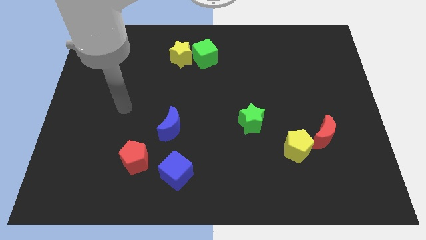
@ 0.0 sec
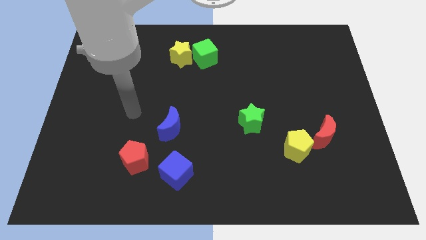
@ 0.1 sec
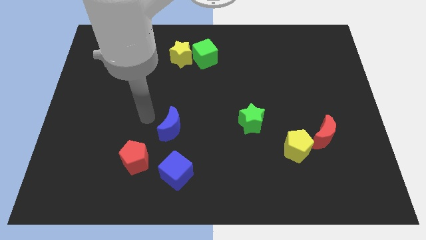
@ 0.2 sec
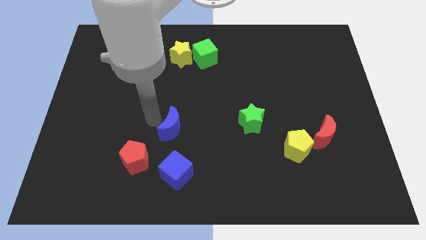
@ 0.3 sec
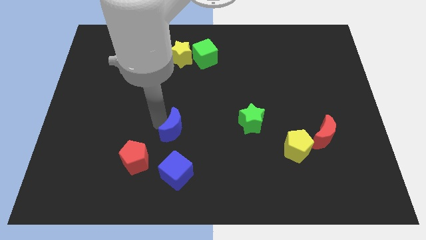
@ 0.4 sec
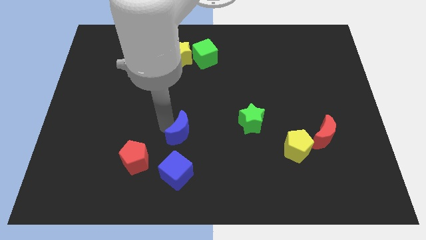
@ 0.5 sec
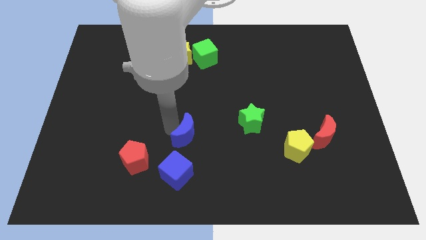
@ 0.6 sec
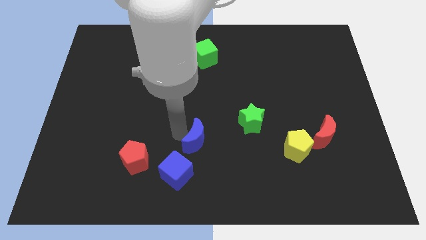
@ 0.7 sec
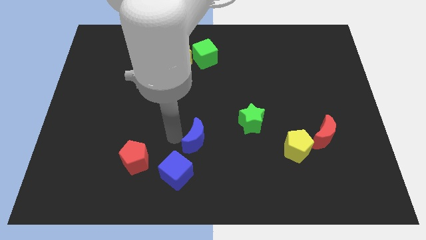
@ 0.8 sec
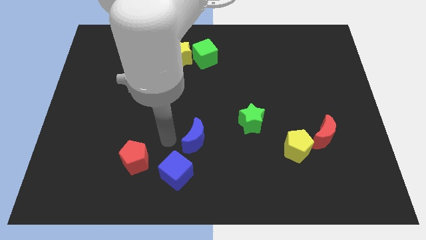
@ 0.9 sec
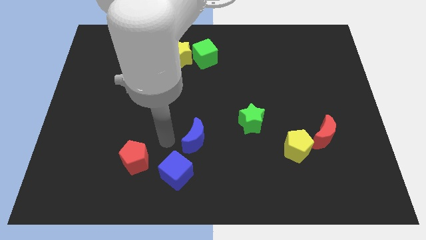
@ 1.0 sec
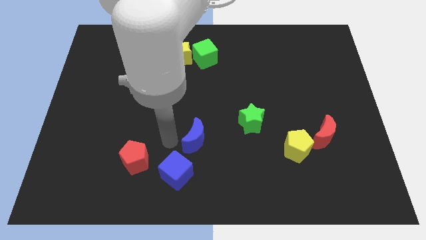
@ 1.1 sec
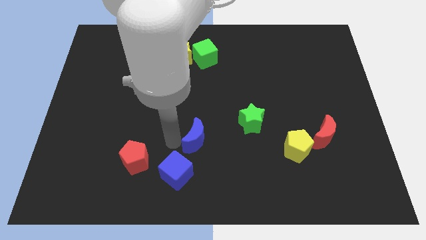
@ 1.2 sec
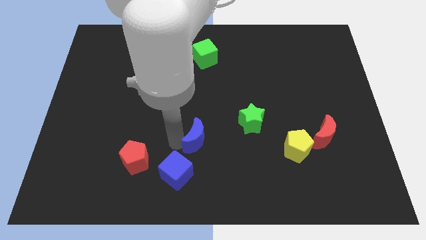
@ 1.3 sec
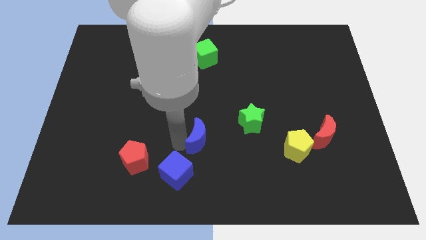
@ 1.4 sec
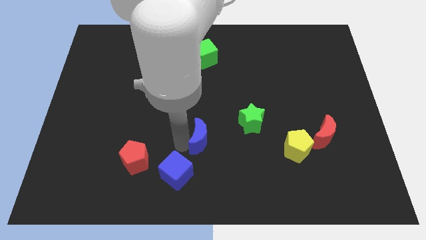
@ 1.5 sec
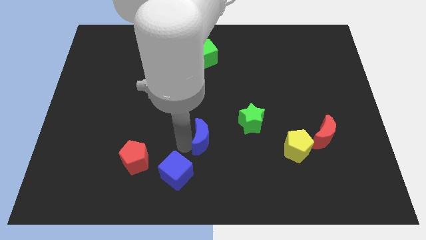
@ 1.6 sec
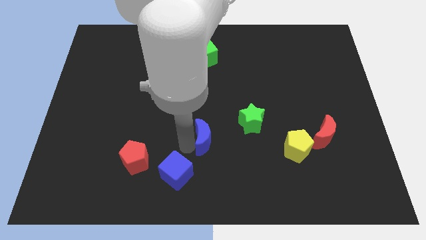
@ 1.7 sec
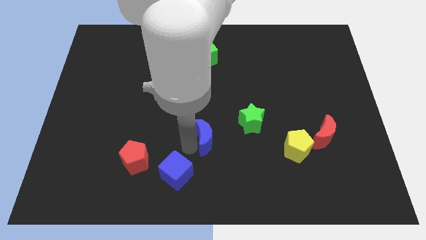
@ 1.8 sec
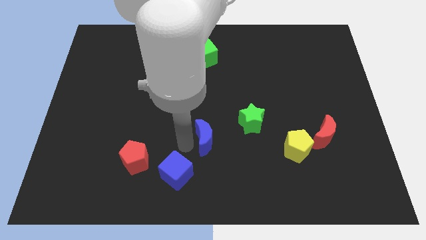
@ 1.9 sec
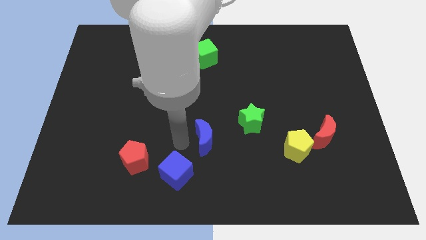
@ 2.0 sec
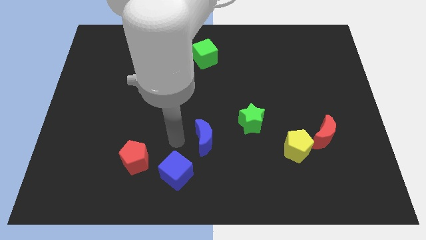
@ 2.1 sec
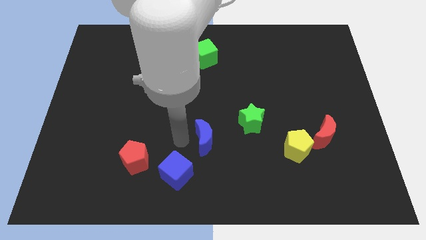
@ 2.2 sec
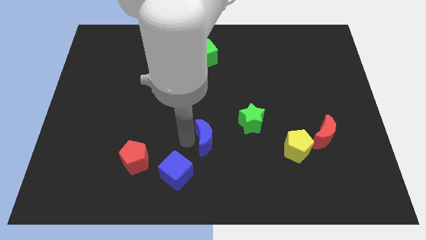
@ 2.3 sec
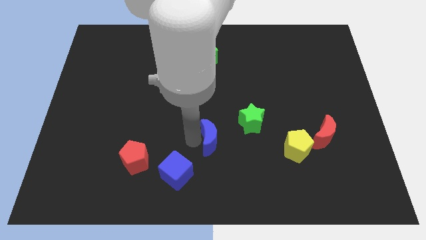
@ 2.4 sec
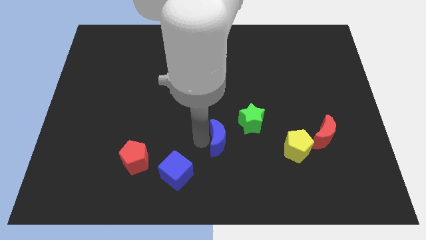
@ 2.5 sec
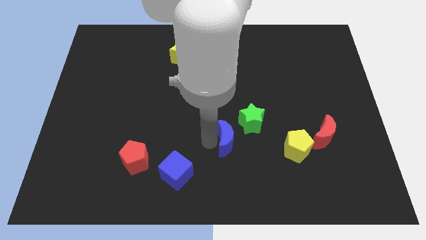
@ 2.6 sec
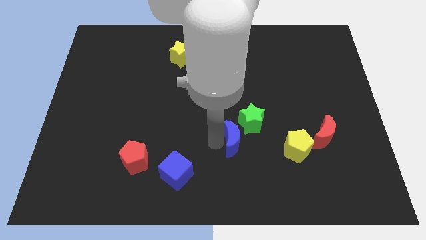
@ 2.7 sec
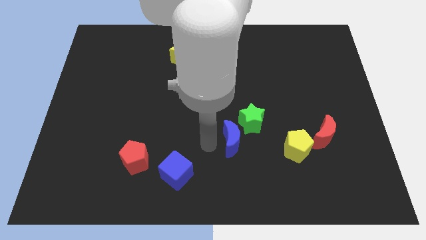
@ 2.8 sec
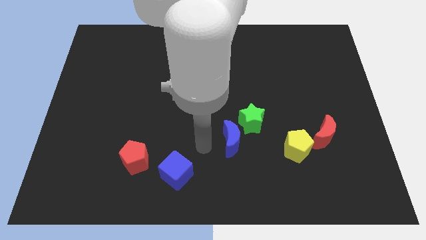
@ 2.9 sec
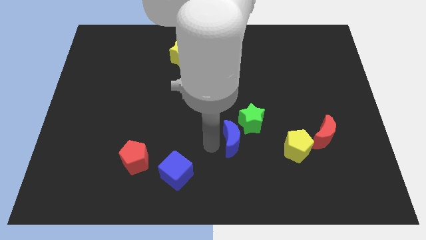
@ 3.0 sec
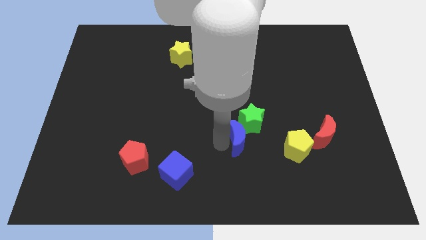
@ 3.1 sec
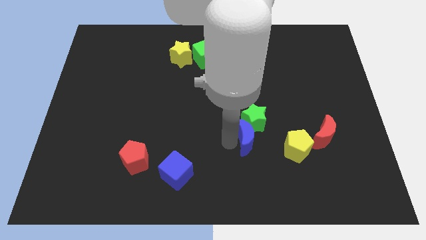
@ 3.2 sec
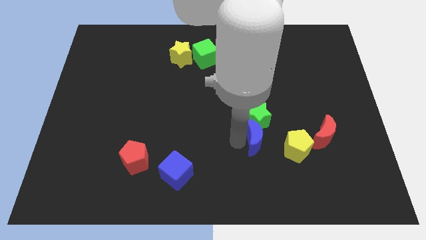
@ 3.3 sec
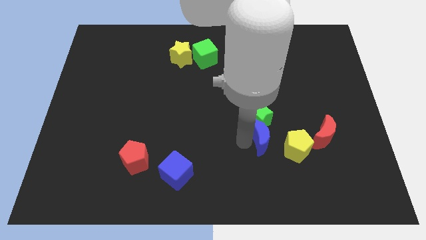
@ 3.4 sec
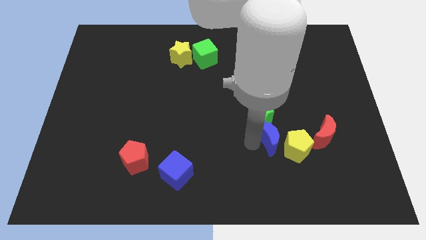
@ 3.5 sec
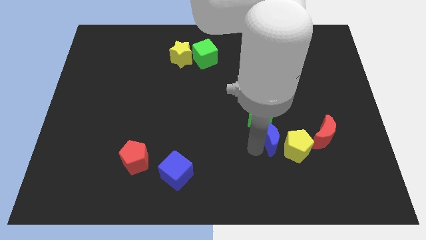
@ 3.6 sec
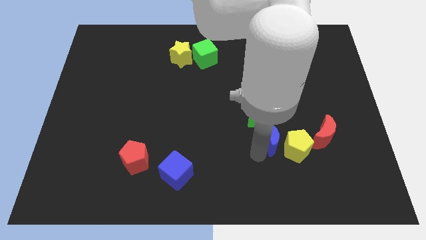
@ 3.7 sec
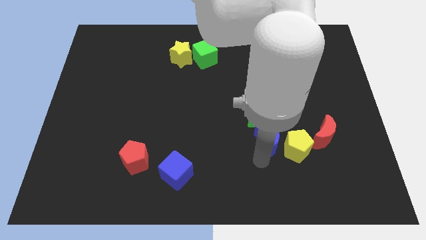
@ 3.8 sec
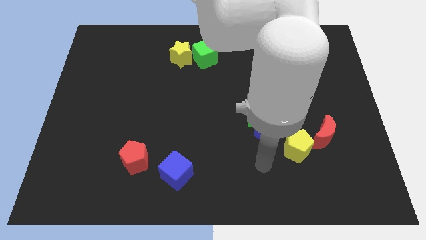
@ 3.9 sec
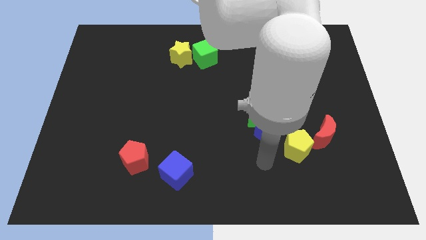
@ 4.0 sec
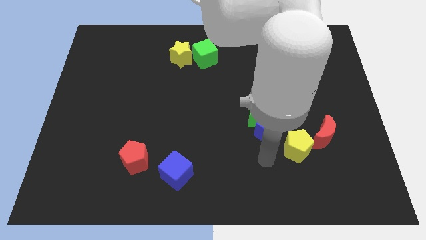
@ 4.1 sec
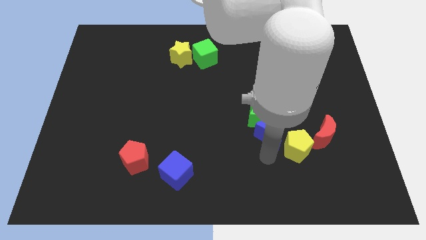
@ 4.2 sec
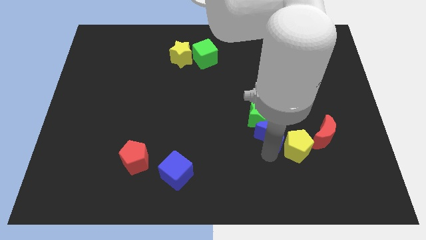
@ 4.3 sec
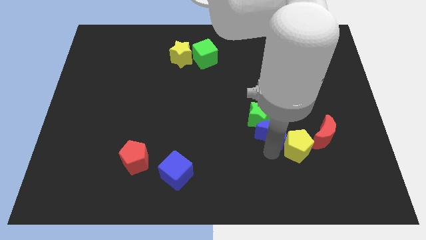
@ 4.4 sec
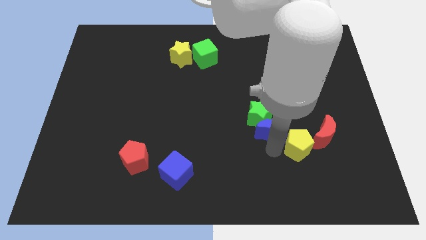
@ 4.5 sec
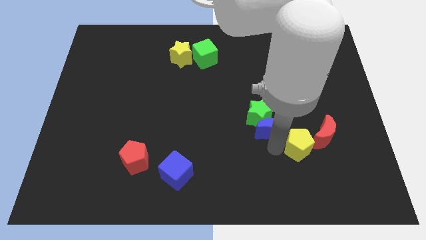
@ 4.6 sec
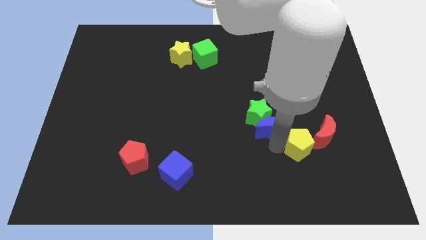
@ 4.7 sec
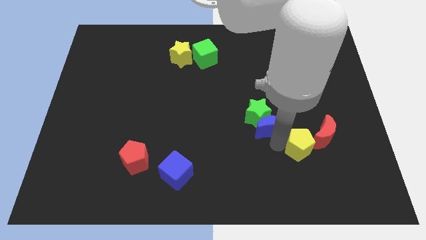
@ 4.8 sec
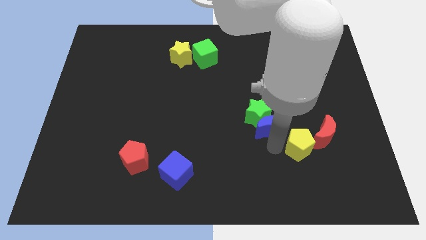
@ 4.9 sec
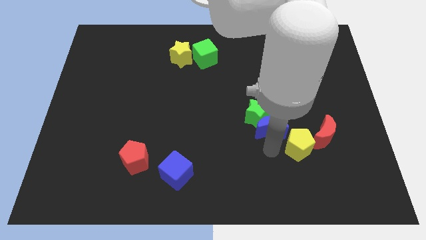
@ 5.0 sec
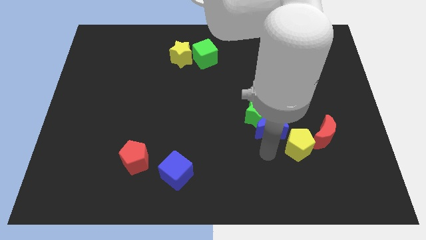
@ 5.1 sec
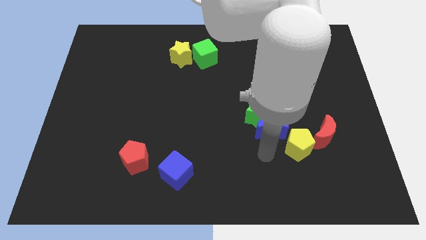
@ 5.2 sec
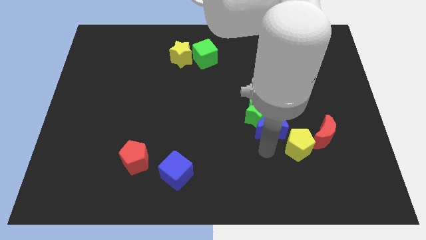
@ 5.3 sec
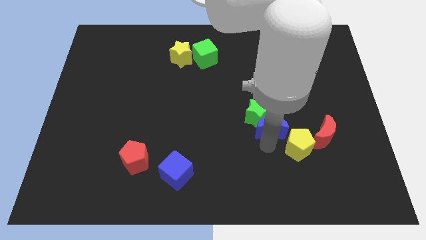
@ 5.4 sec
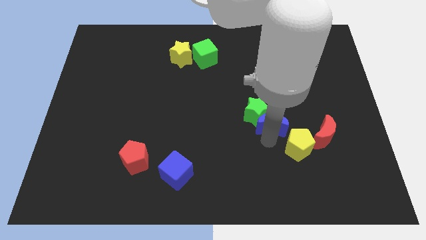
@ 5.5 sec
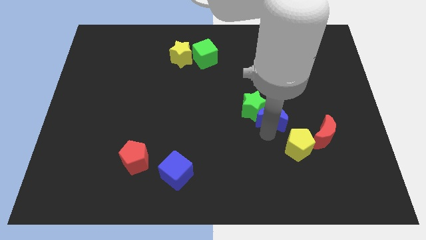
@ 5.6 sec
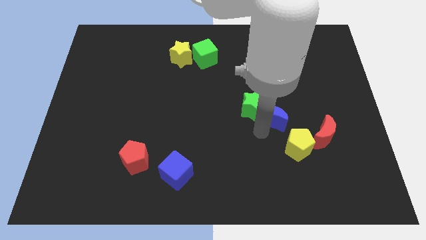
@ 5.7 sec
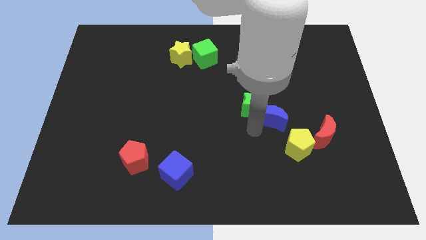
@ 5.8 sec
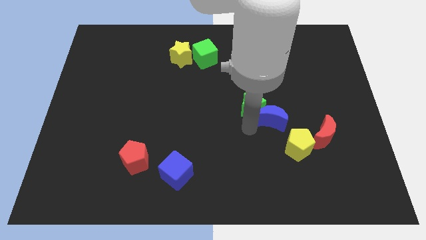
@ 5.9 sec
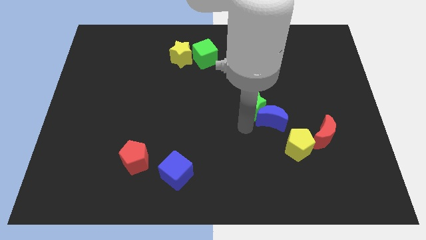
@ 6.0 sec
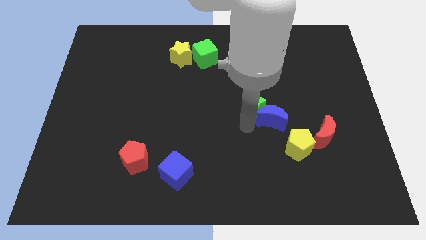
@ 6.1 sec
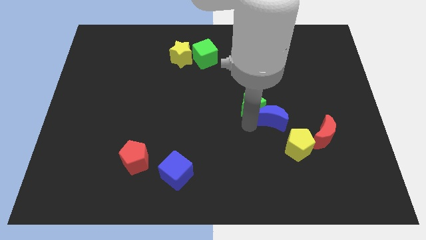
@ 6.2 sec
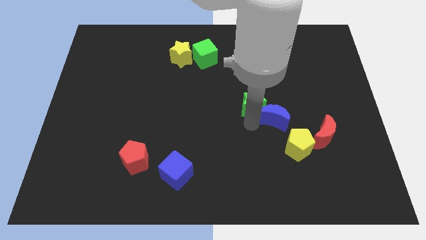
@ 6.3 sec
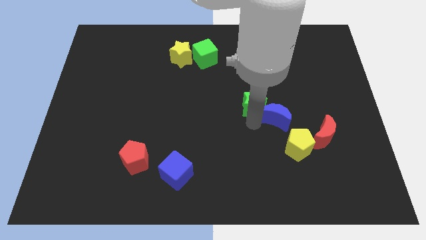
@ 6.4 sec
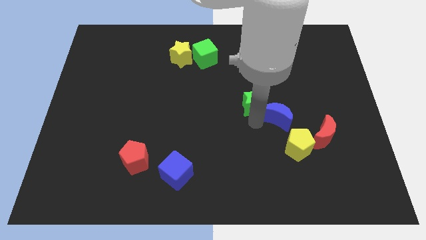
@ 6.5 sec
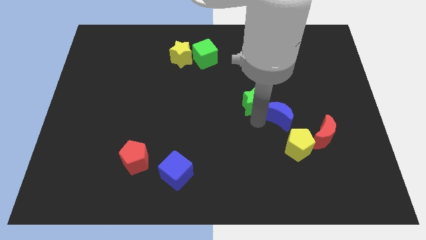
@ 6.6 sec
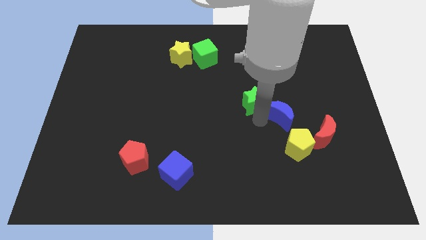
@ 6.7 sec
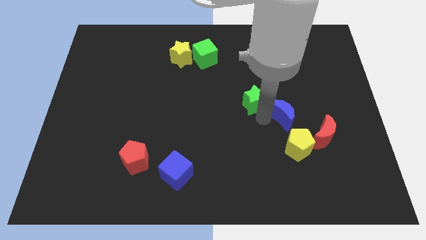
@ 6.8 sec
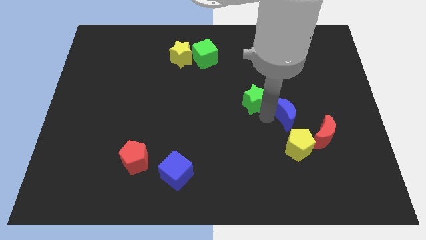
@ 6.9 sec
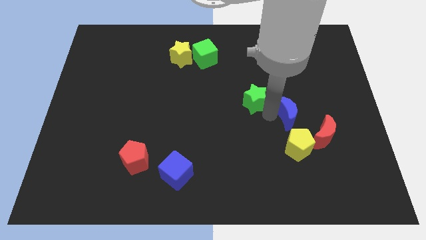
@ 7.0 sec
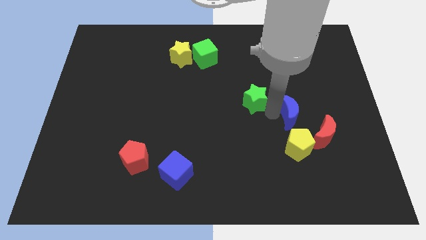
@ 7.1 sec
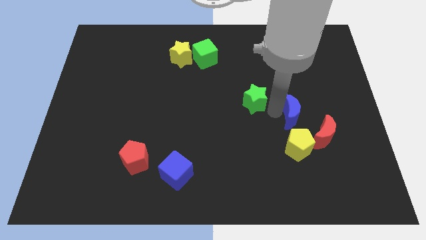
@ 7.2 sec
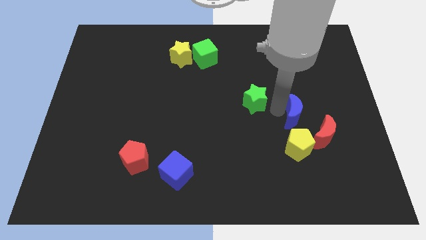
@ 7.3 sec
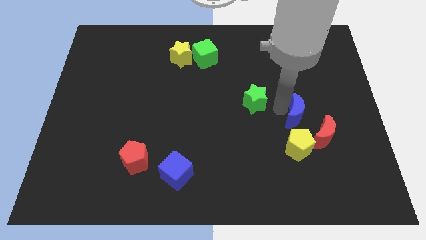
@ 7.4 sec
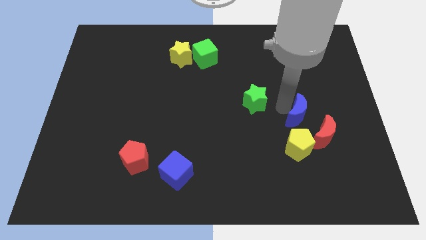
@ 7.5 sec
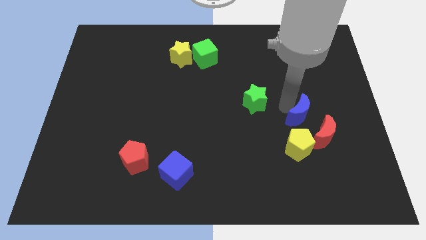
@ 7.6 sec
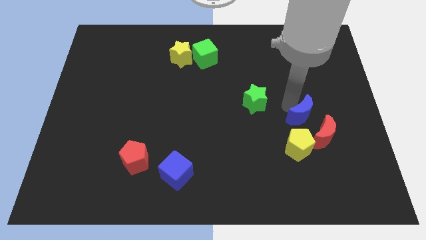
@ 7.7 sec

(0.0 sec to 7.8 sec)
push the blue moon diagonally up and to the right of the yellow pentagon
